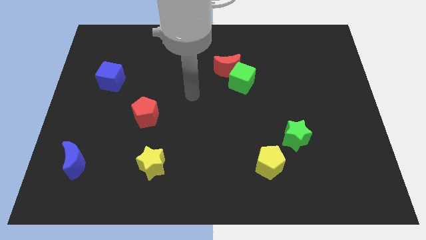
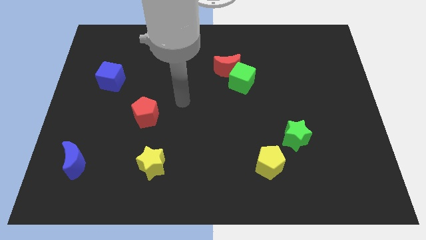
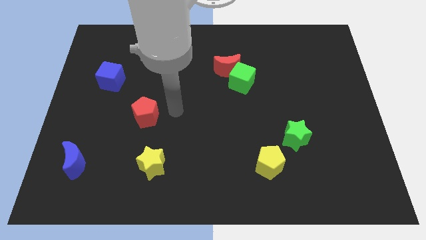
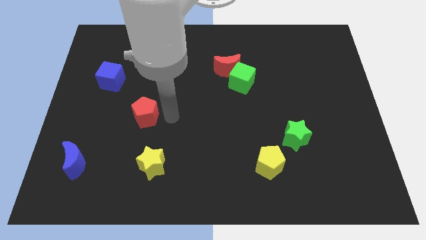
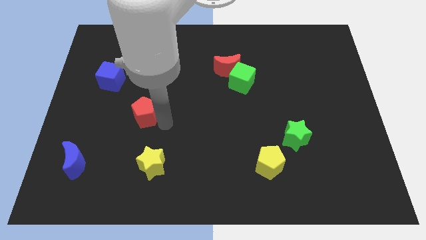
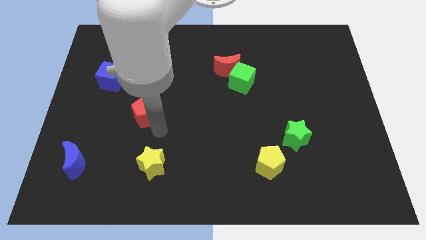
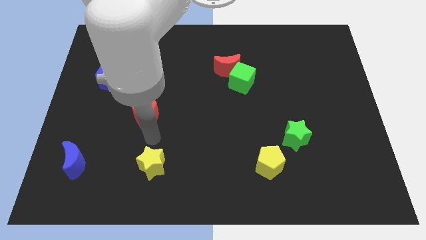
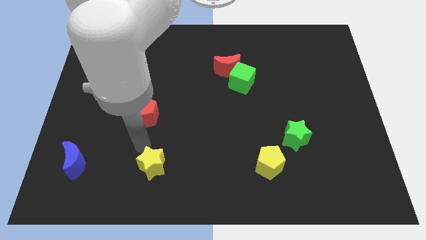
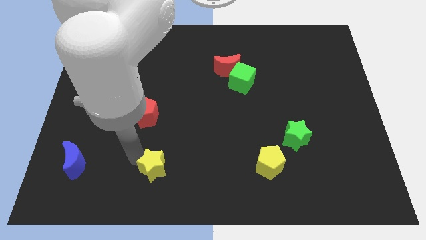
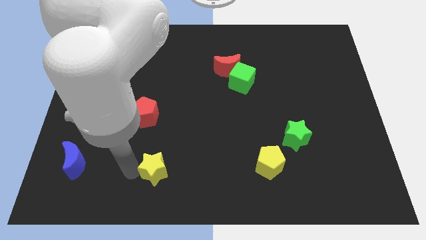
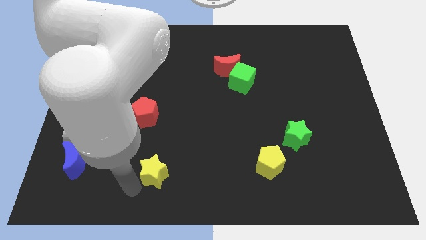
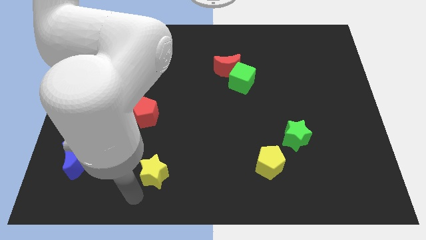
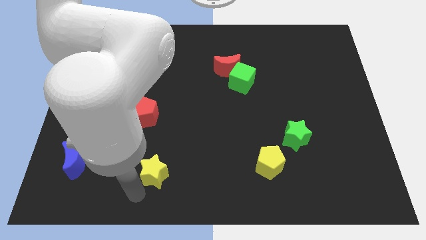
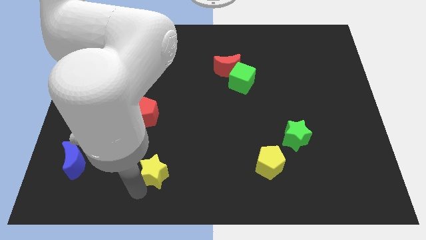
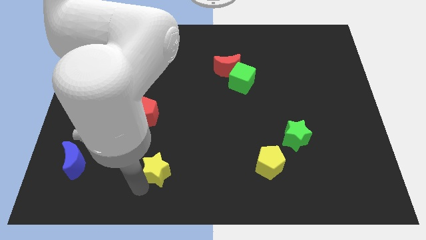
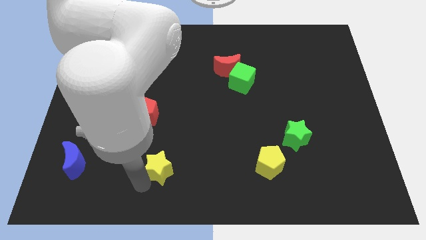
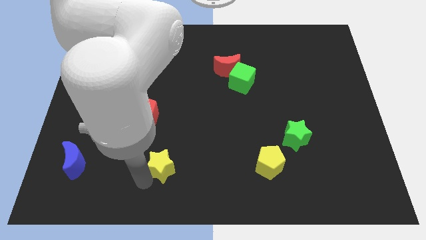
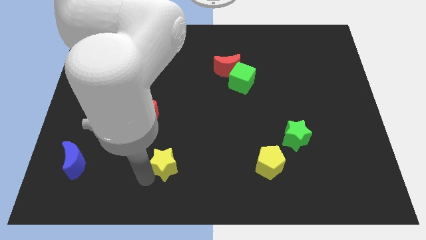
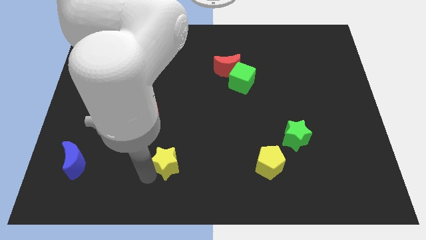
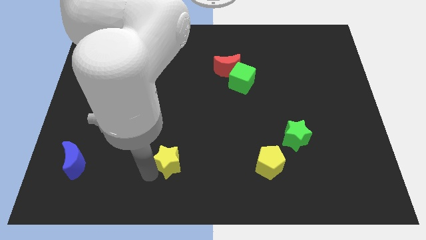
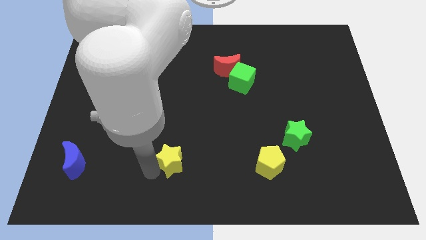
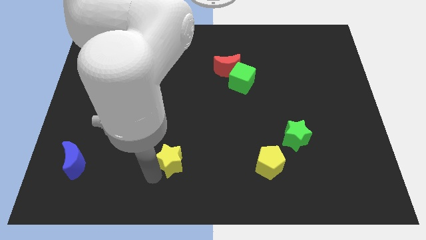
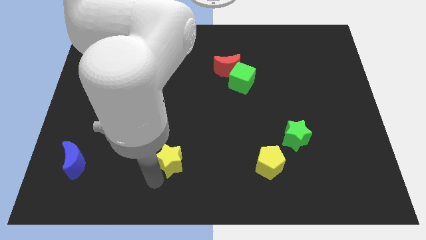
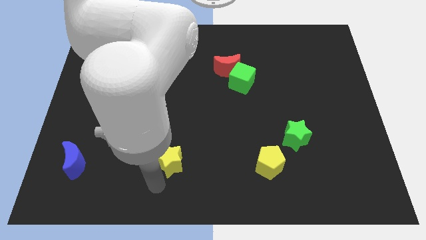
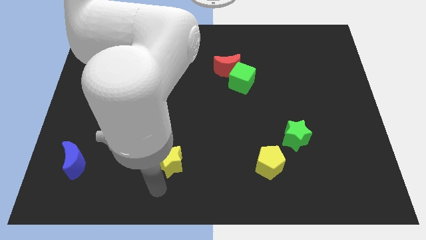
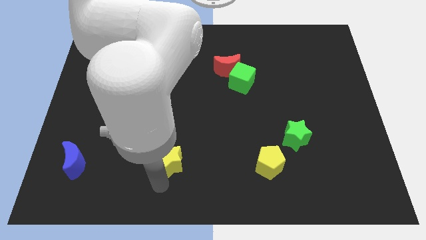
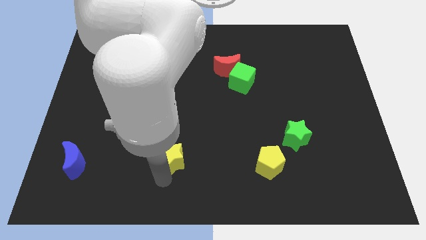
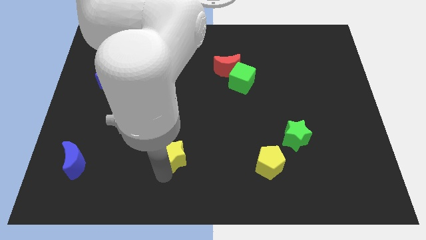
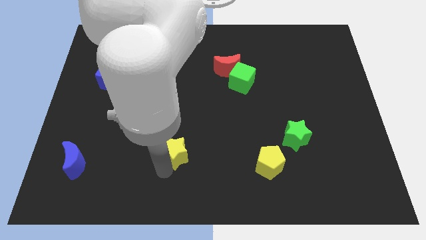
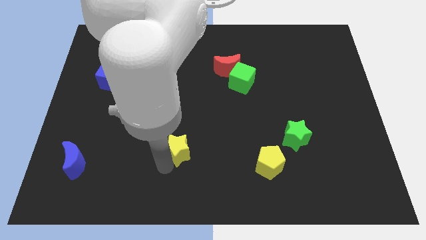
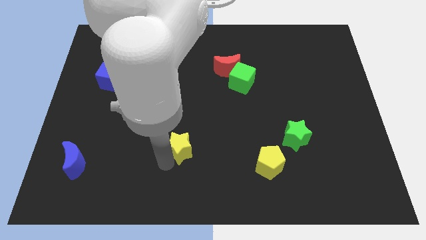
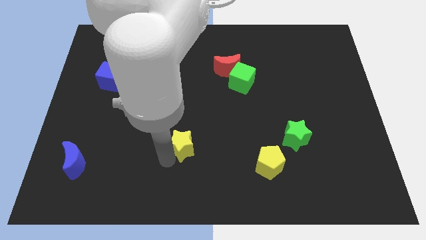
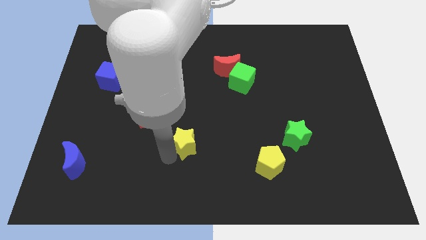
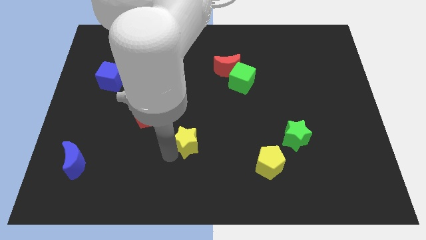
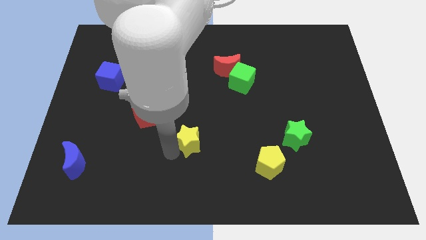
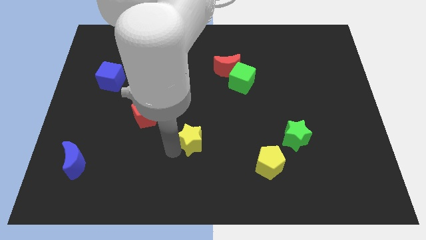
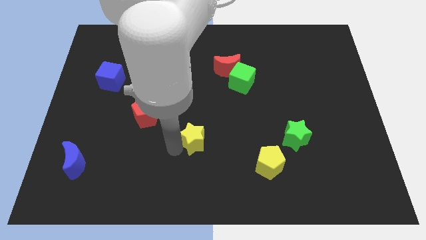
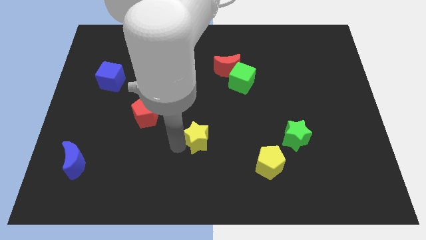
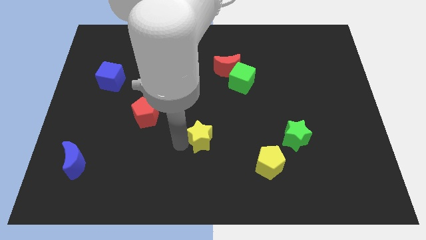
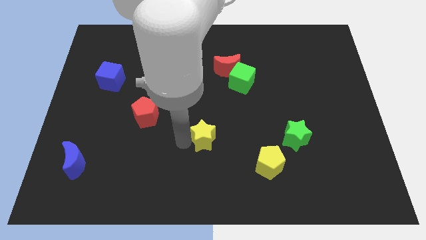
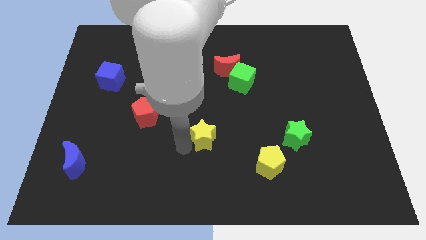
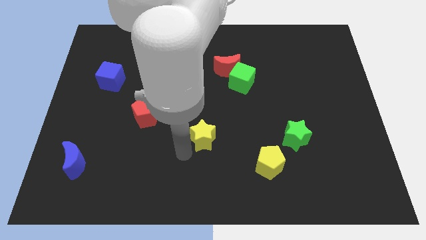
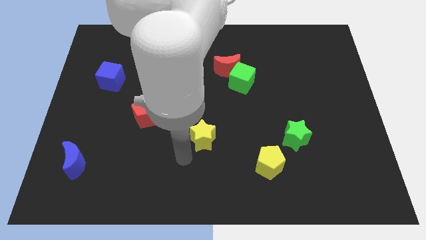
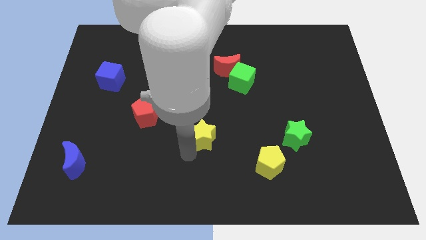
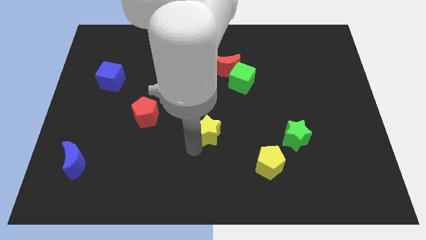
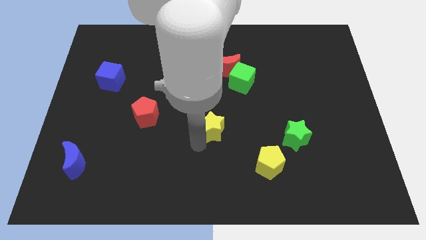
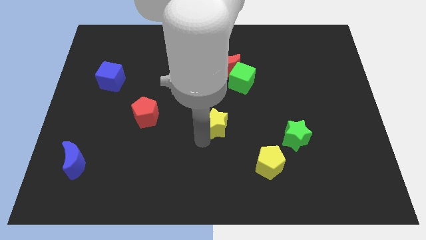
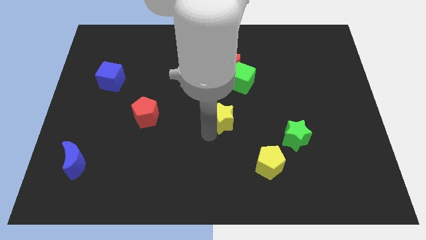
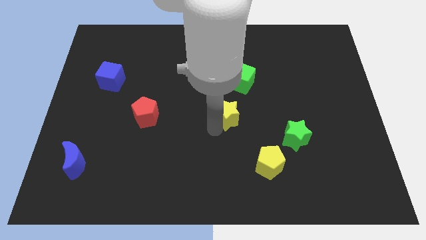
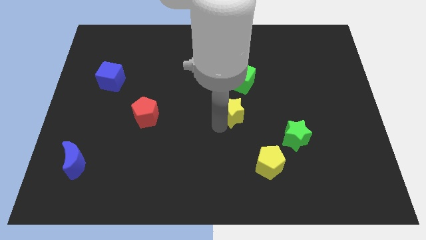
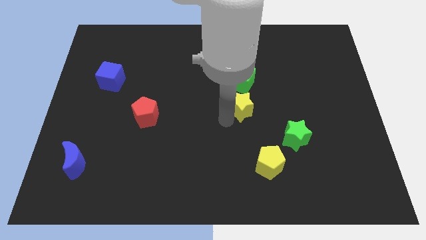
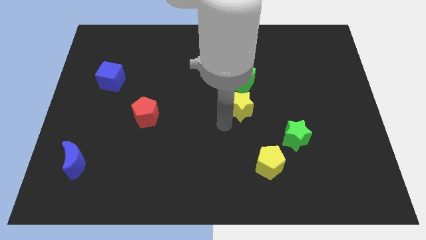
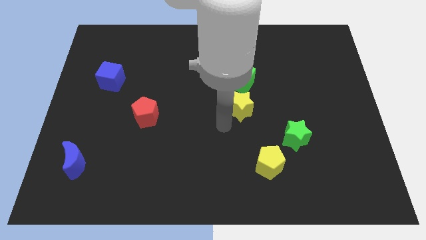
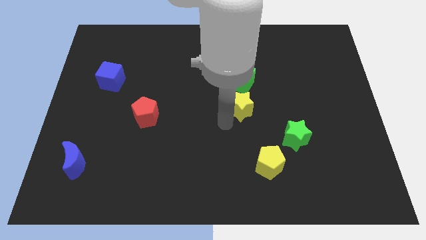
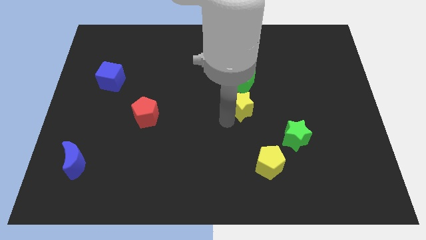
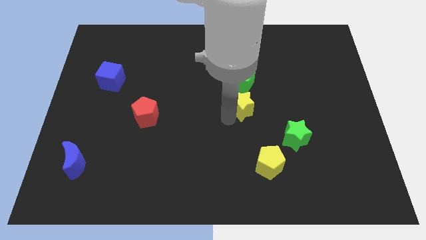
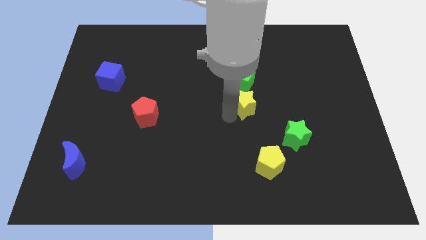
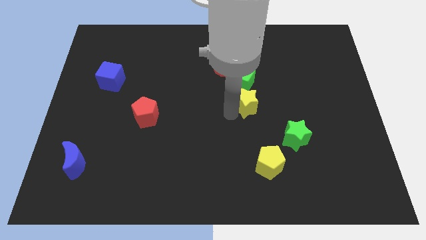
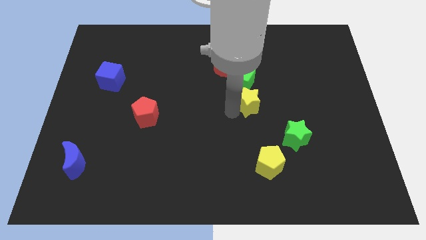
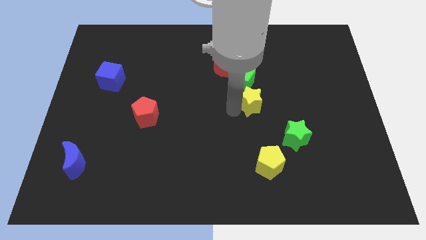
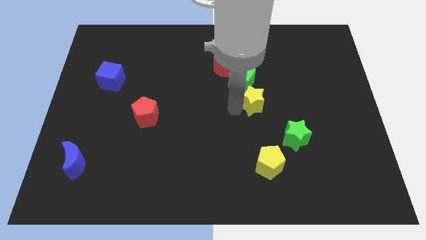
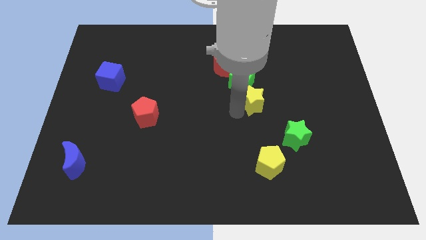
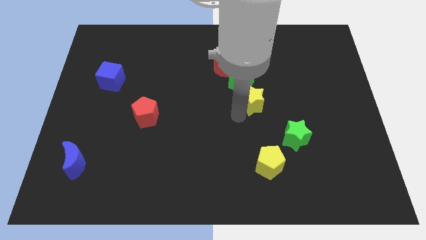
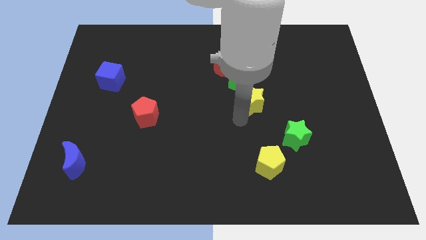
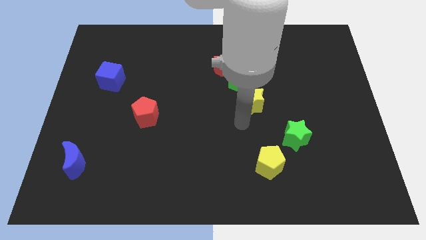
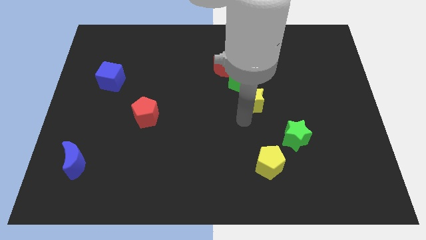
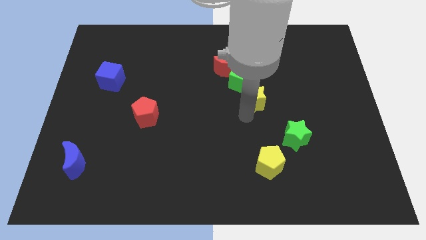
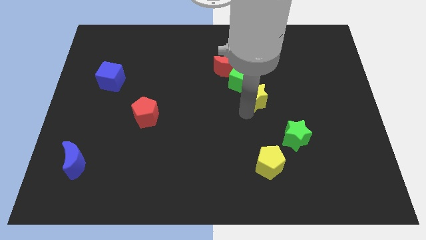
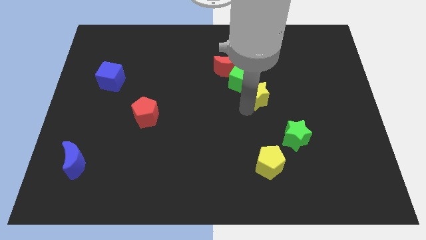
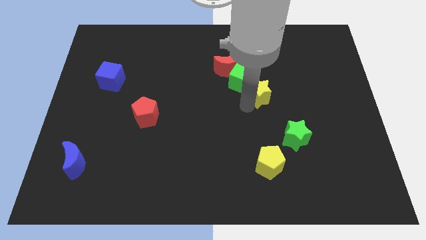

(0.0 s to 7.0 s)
put the yellow star right of the green cube

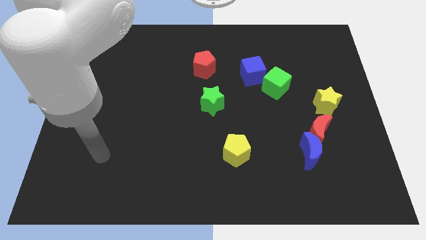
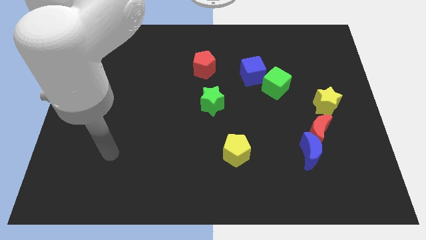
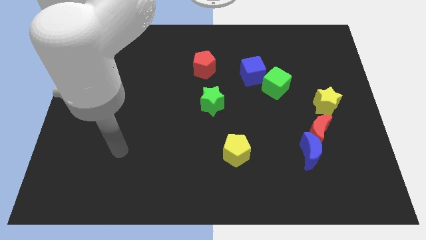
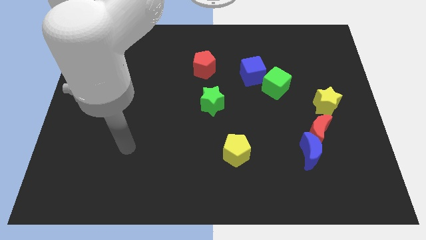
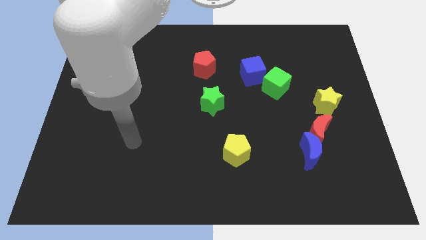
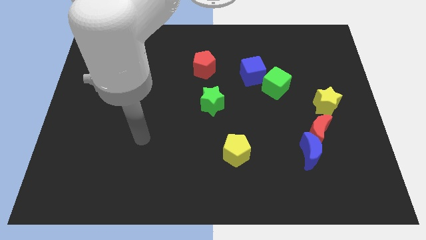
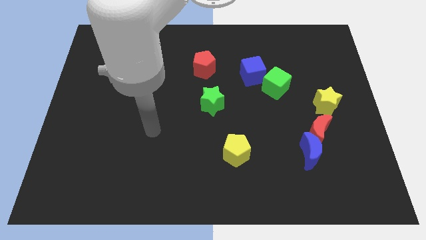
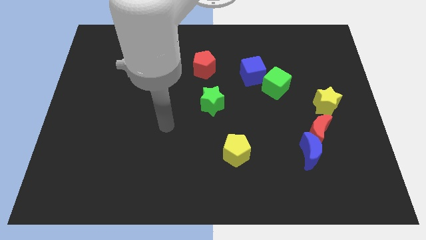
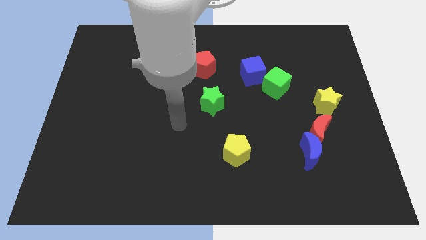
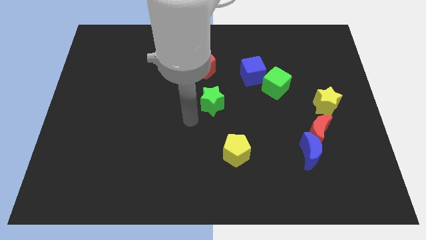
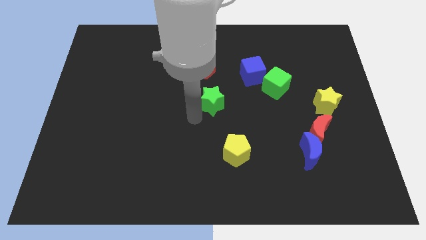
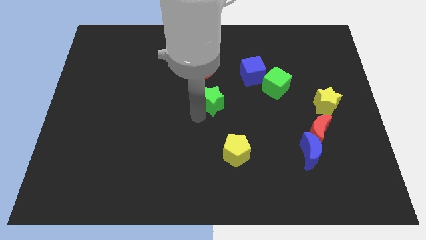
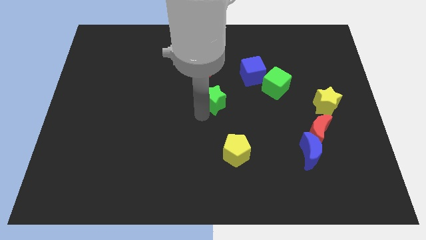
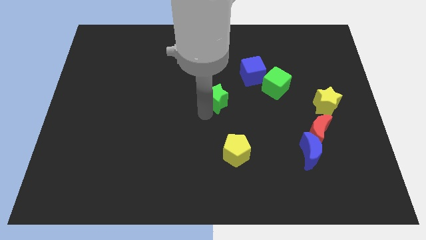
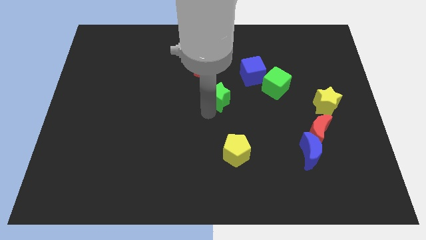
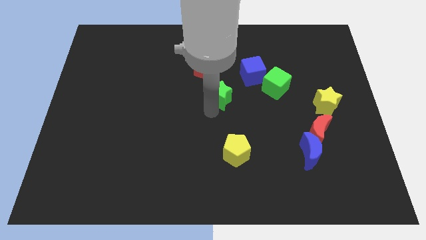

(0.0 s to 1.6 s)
move the green star to the left of the green cube
